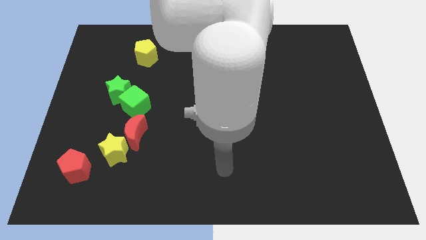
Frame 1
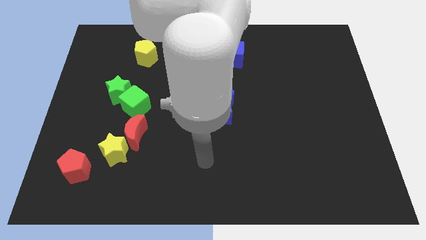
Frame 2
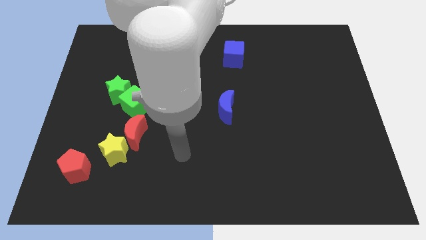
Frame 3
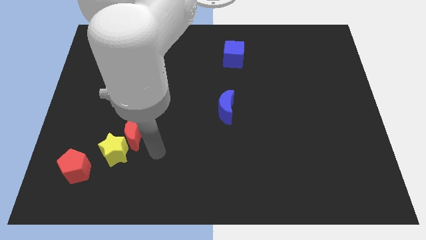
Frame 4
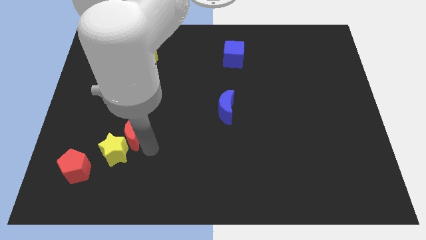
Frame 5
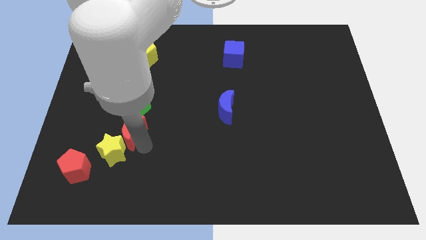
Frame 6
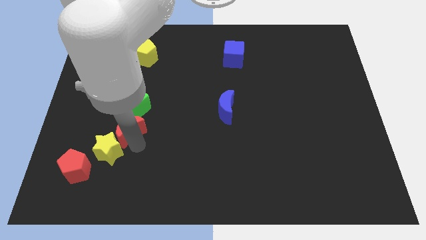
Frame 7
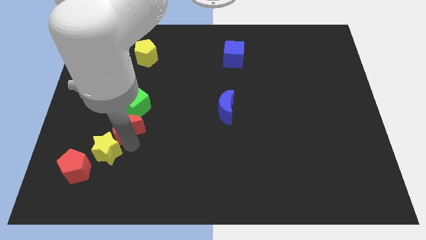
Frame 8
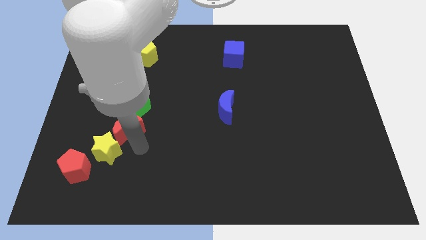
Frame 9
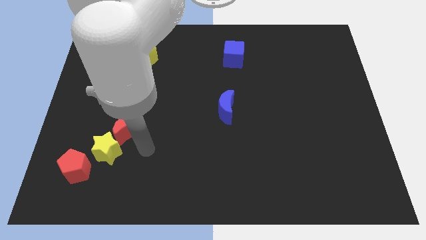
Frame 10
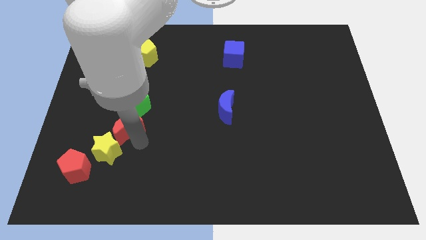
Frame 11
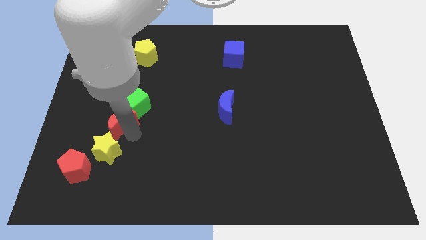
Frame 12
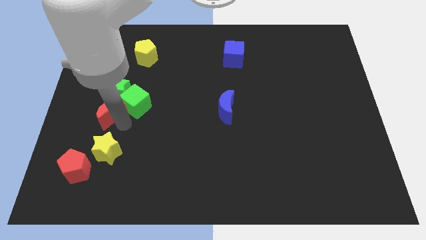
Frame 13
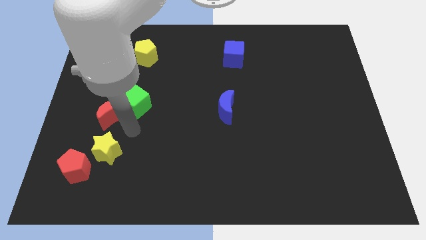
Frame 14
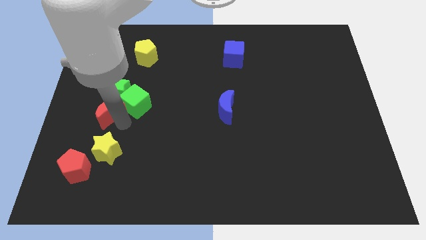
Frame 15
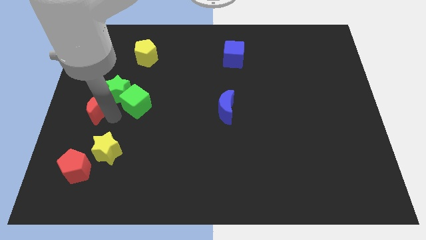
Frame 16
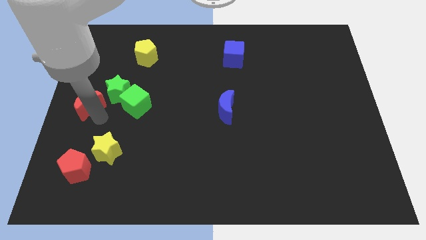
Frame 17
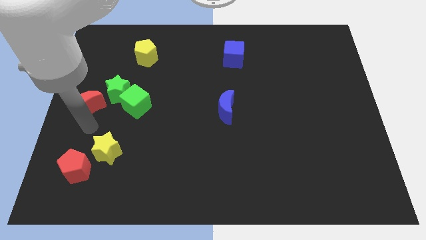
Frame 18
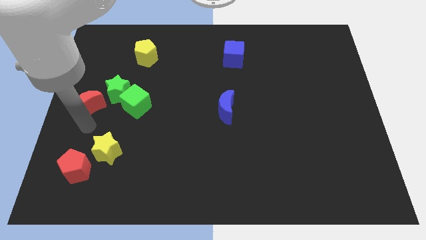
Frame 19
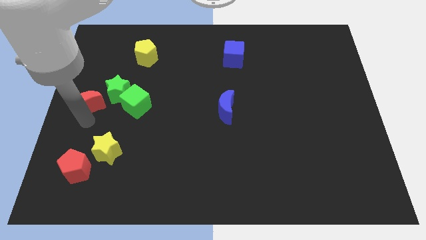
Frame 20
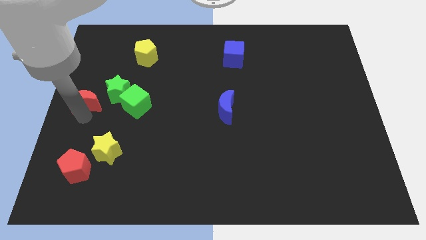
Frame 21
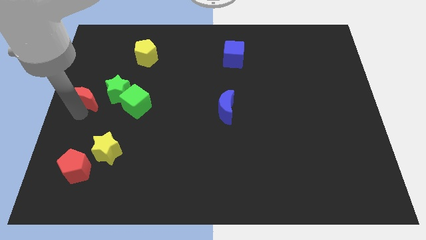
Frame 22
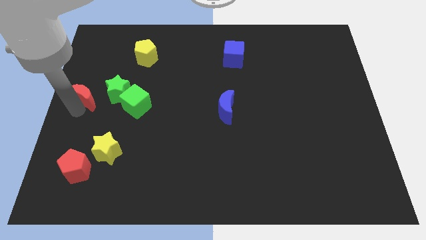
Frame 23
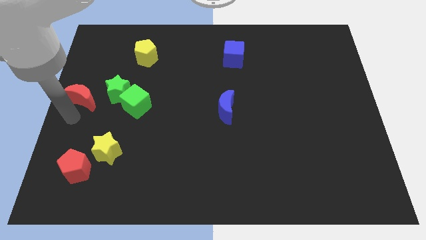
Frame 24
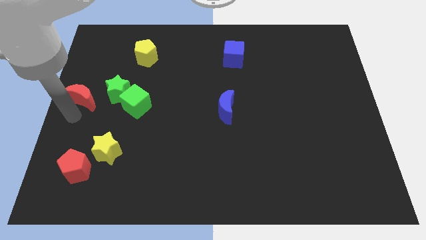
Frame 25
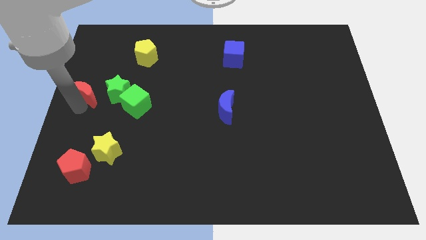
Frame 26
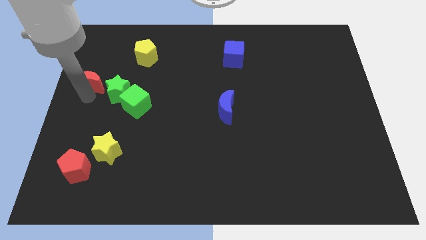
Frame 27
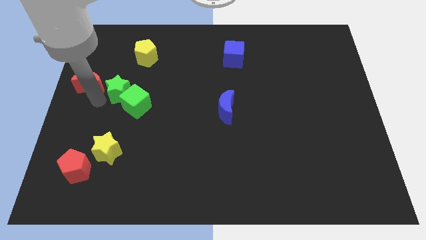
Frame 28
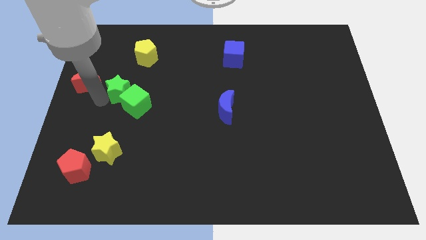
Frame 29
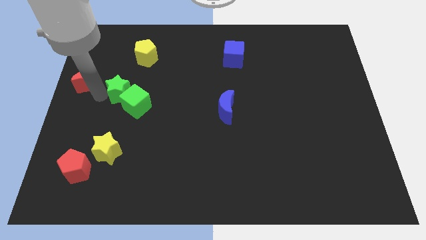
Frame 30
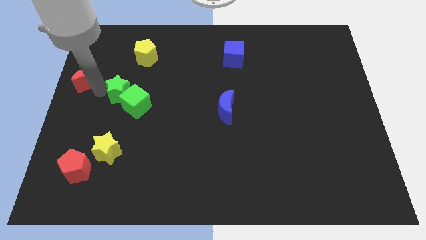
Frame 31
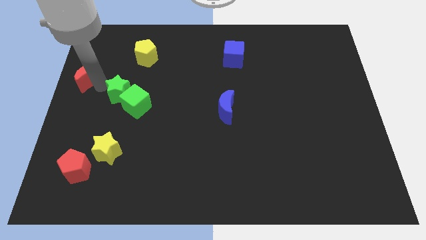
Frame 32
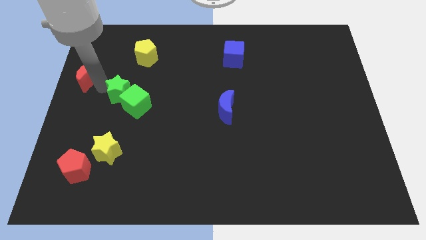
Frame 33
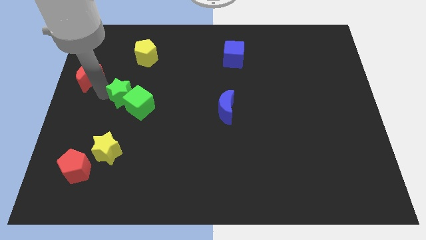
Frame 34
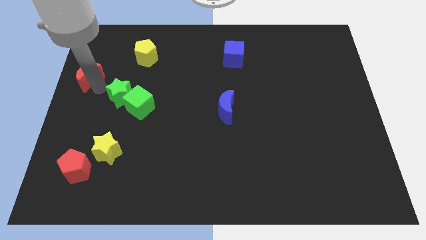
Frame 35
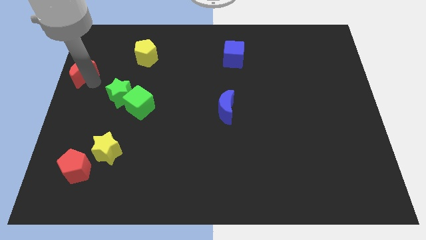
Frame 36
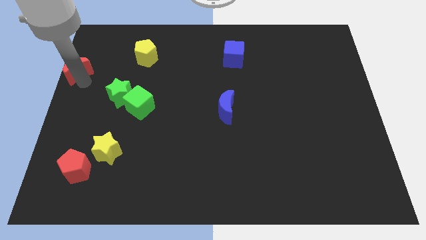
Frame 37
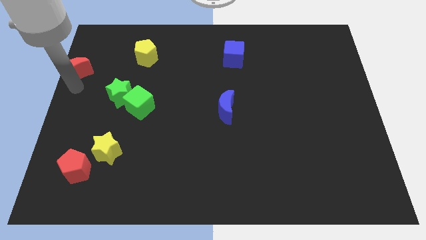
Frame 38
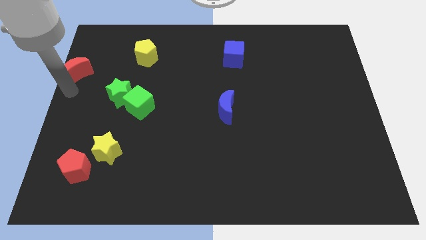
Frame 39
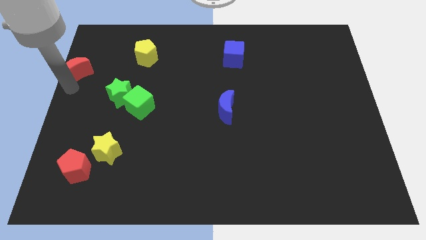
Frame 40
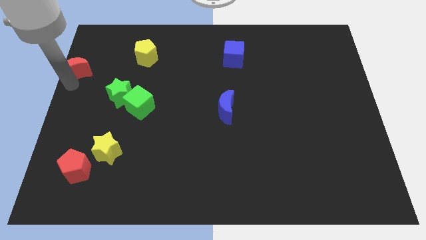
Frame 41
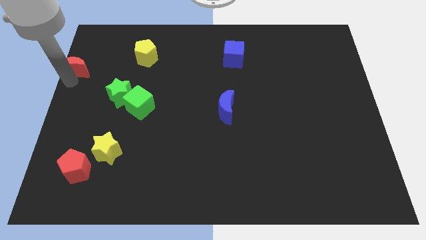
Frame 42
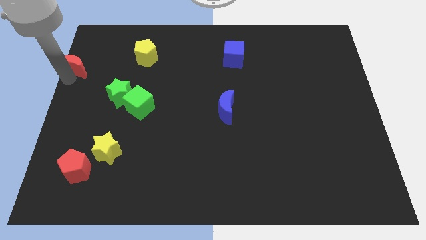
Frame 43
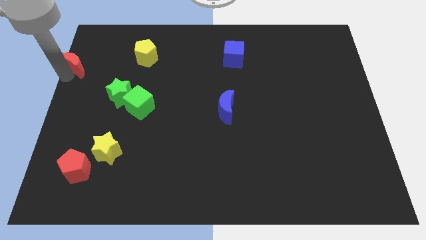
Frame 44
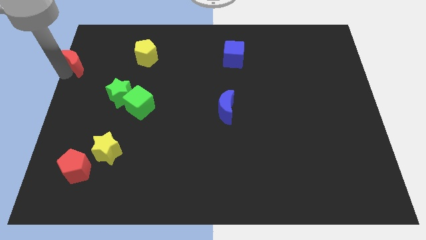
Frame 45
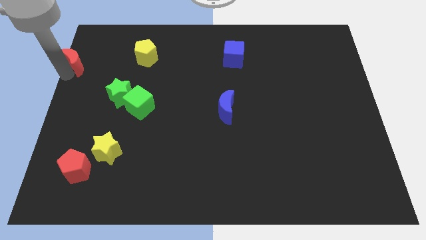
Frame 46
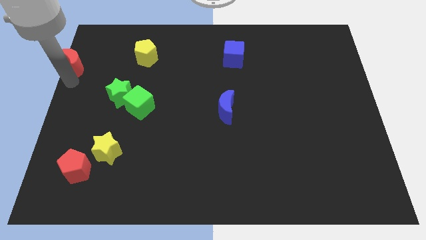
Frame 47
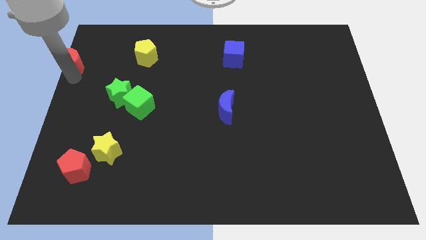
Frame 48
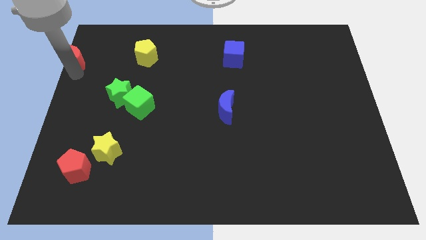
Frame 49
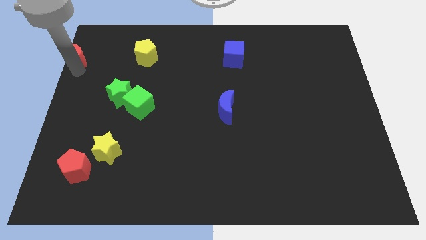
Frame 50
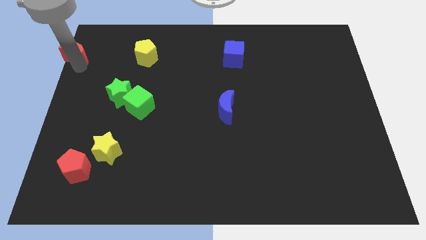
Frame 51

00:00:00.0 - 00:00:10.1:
slide the red moon to the upper left corner

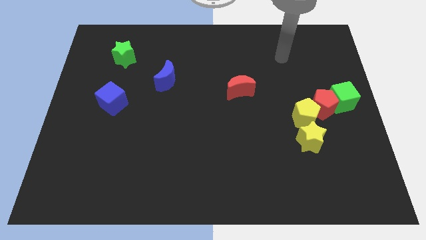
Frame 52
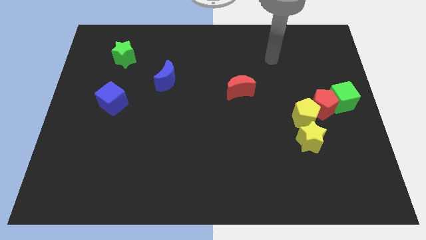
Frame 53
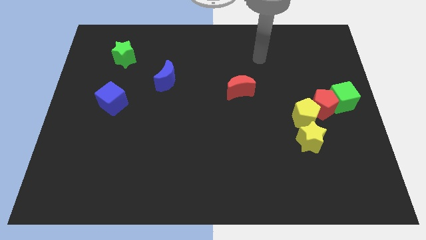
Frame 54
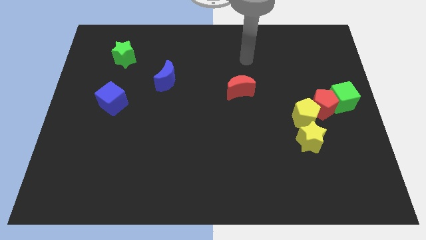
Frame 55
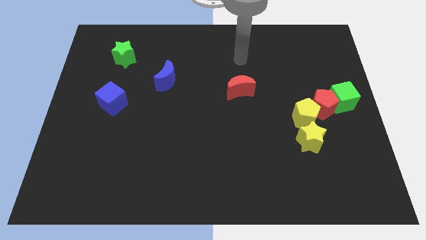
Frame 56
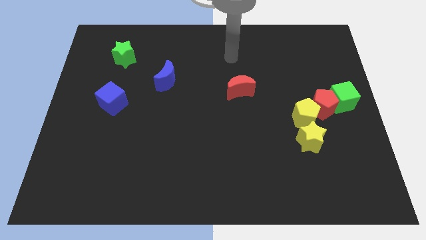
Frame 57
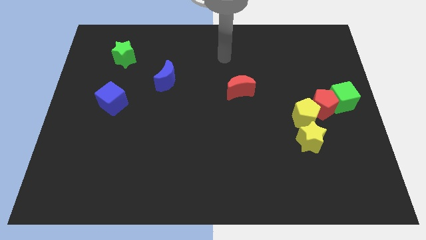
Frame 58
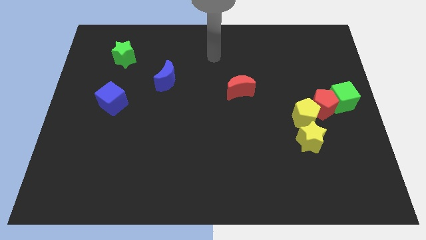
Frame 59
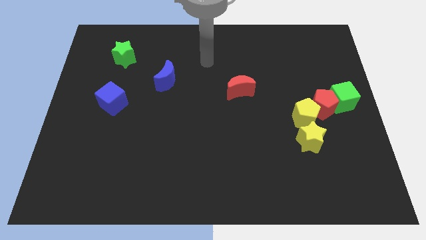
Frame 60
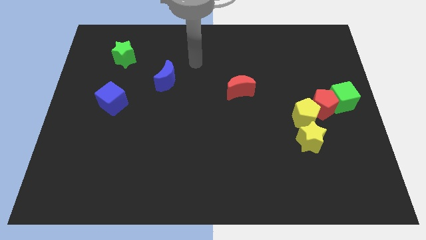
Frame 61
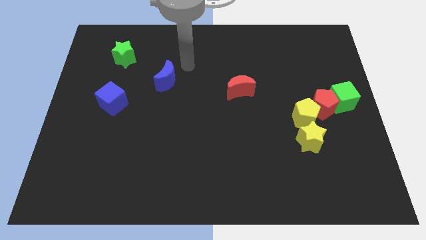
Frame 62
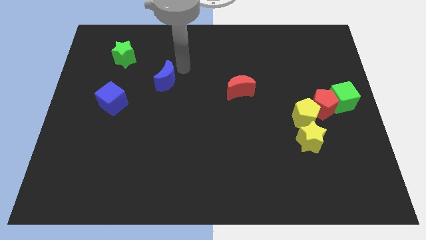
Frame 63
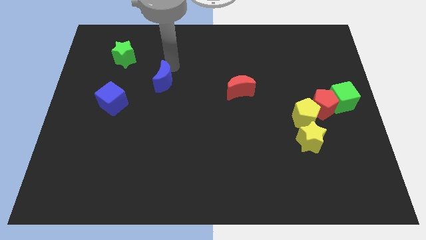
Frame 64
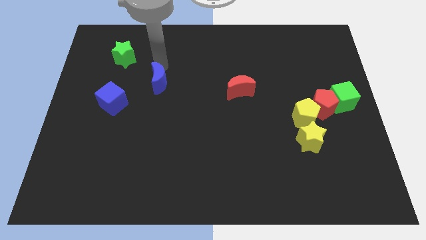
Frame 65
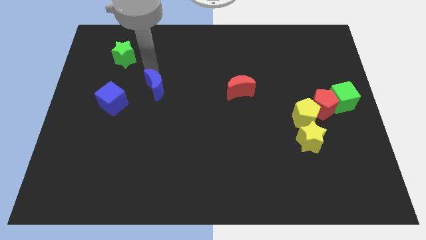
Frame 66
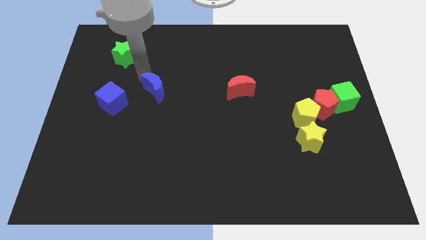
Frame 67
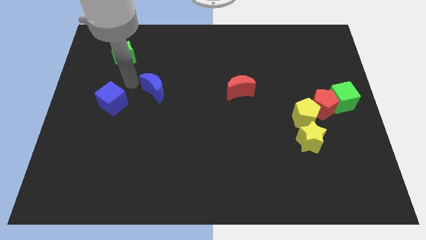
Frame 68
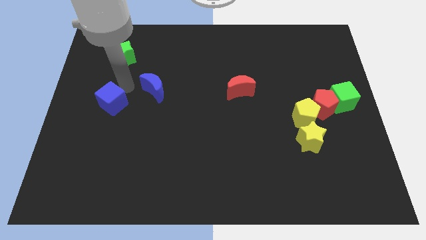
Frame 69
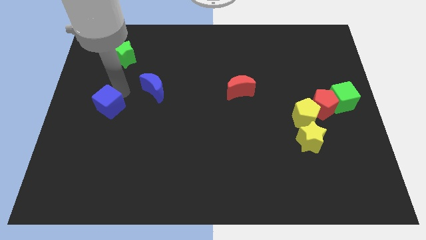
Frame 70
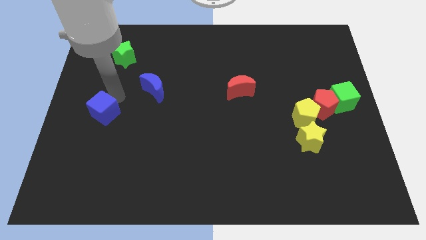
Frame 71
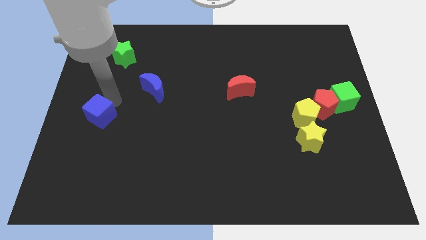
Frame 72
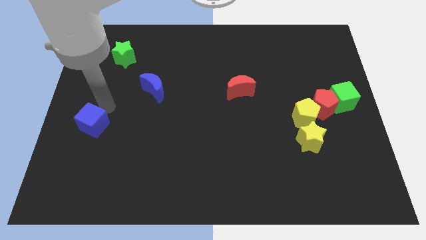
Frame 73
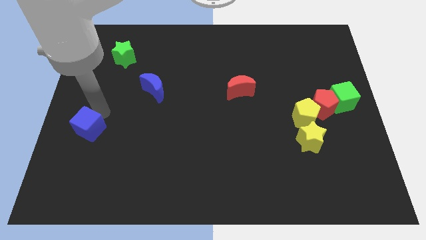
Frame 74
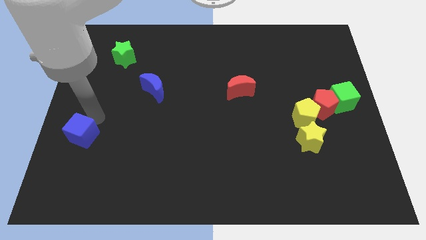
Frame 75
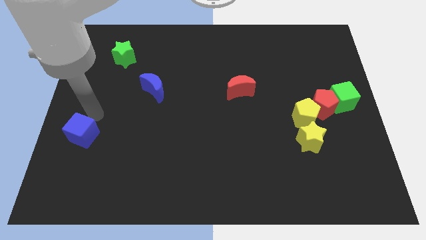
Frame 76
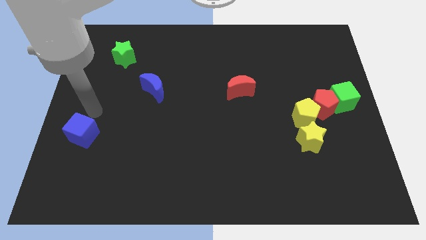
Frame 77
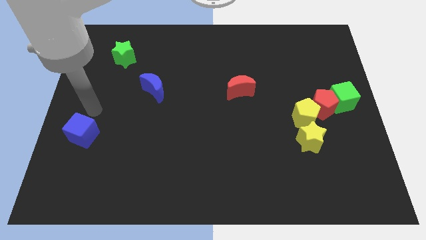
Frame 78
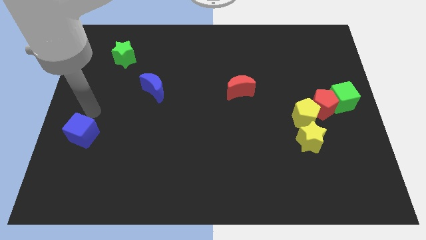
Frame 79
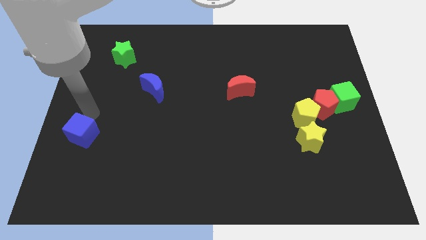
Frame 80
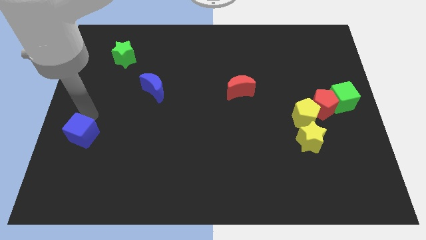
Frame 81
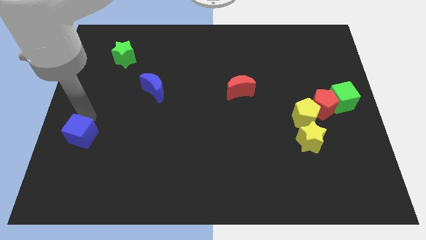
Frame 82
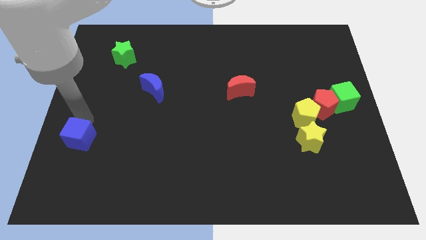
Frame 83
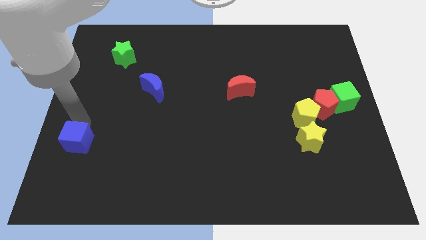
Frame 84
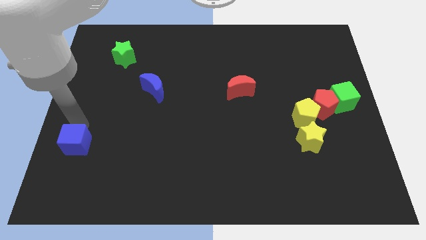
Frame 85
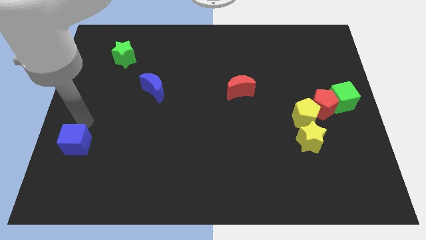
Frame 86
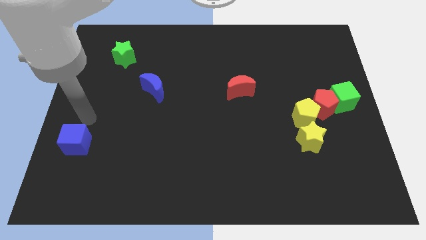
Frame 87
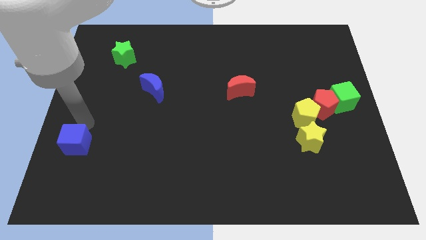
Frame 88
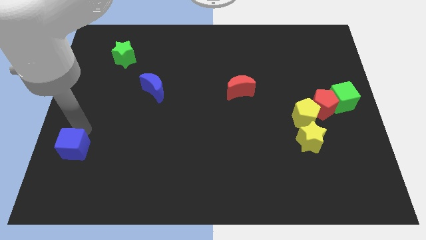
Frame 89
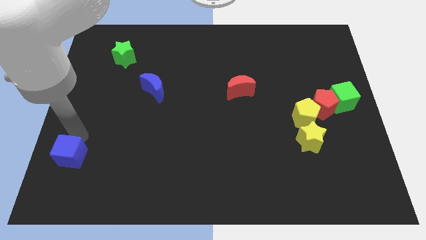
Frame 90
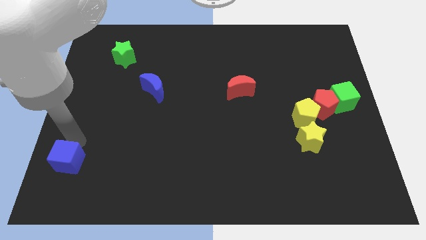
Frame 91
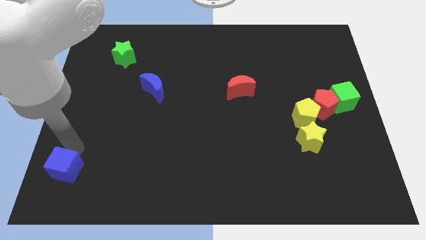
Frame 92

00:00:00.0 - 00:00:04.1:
push the blue cube to the bottom left of the board
